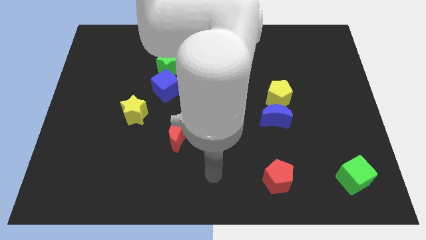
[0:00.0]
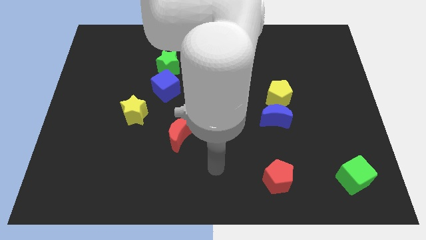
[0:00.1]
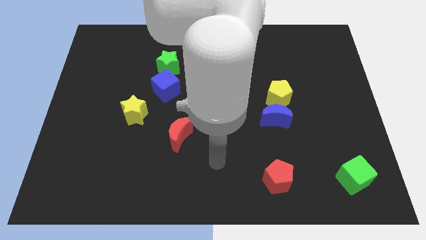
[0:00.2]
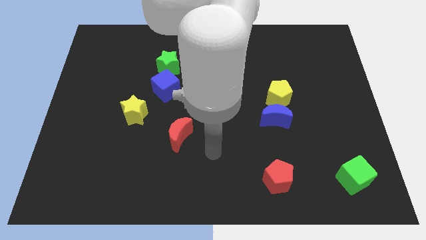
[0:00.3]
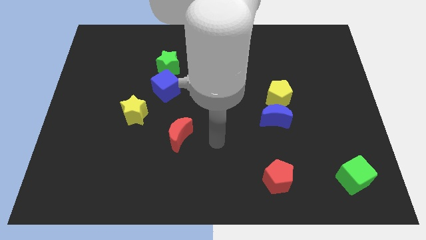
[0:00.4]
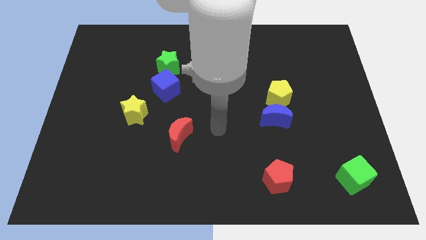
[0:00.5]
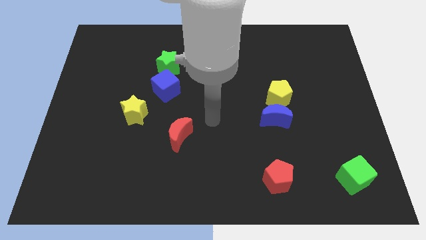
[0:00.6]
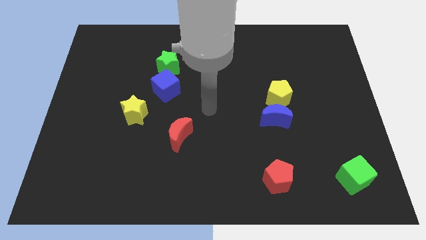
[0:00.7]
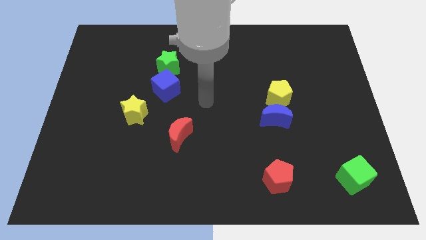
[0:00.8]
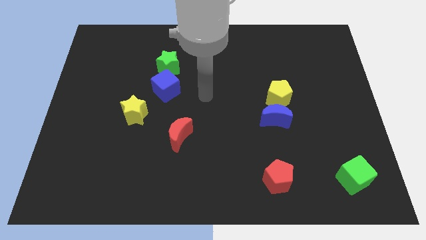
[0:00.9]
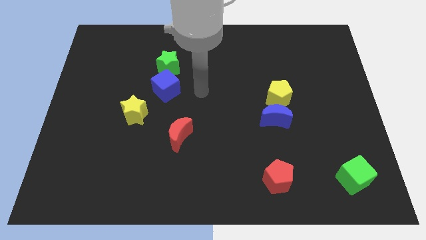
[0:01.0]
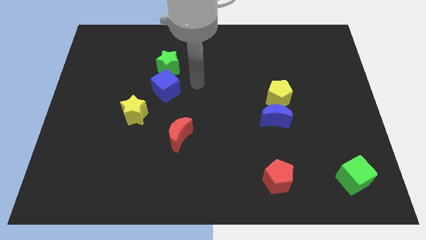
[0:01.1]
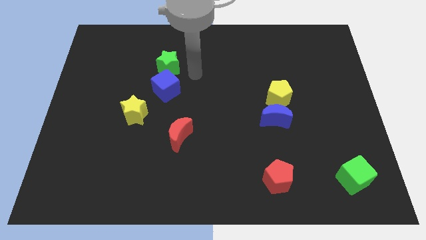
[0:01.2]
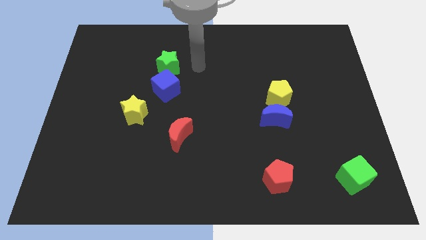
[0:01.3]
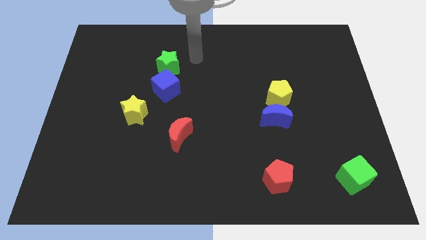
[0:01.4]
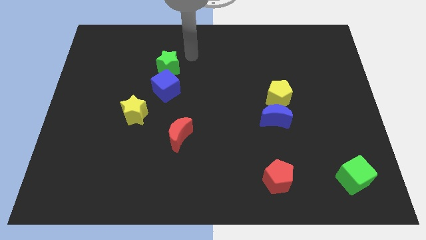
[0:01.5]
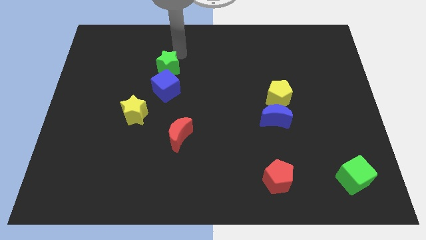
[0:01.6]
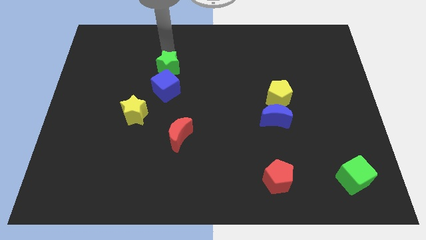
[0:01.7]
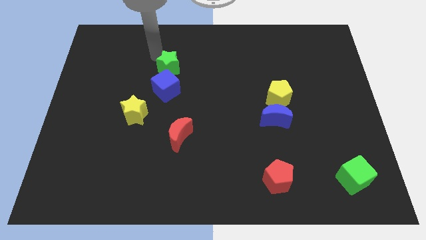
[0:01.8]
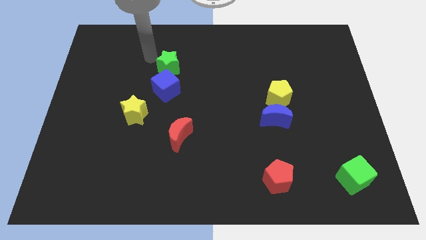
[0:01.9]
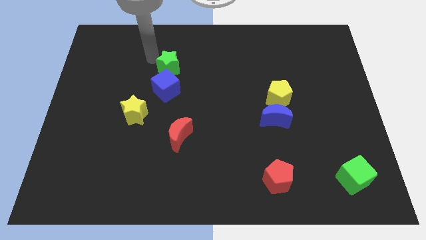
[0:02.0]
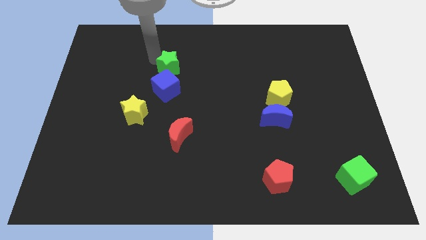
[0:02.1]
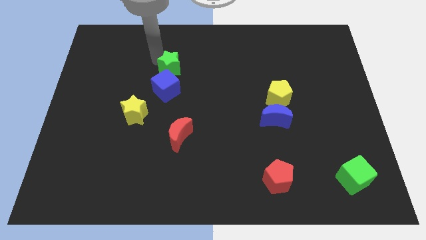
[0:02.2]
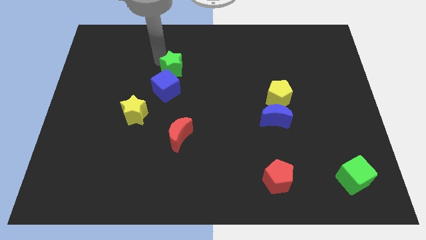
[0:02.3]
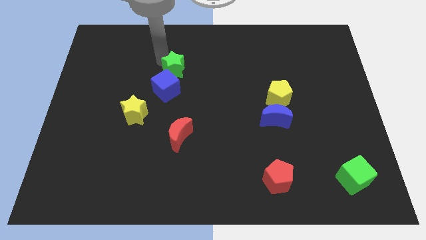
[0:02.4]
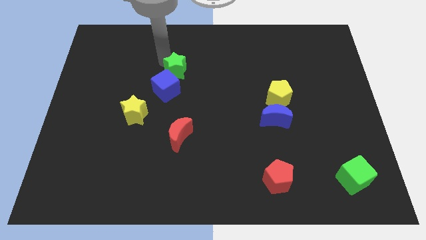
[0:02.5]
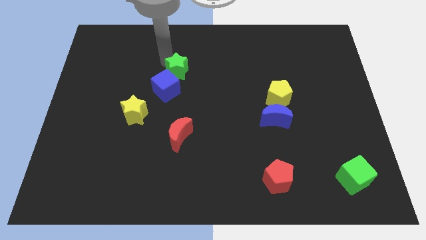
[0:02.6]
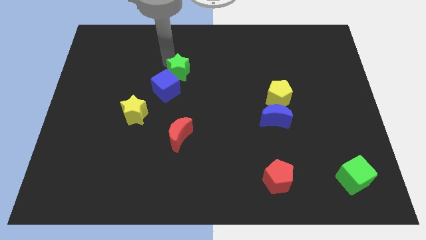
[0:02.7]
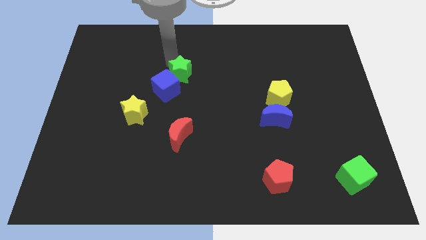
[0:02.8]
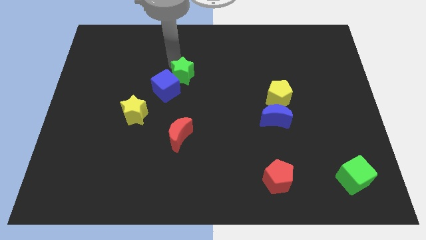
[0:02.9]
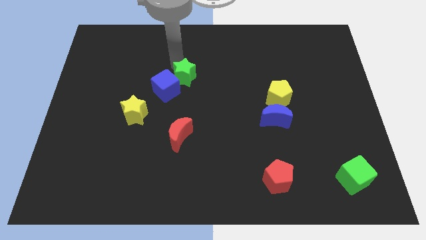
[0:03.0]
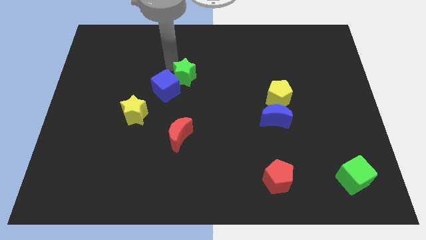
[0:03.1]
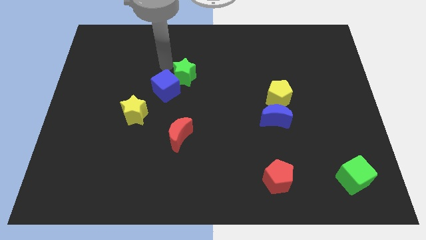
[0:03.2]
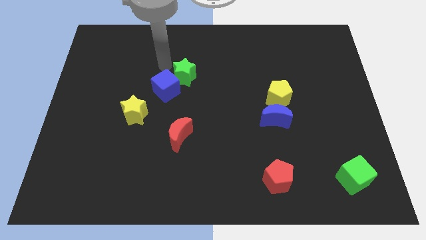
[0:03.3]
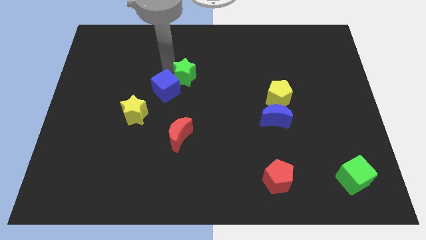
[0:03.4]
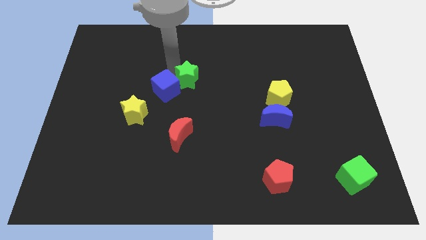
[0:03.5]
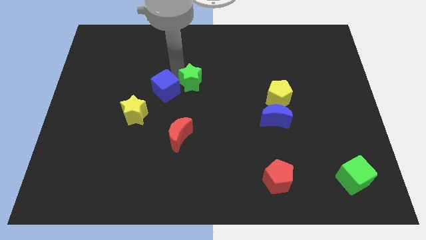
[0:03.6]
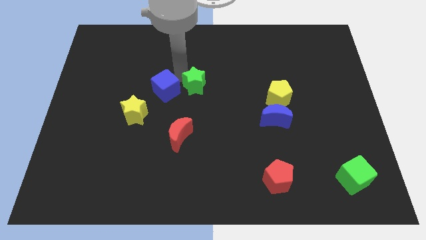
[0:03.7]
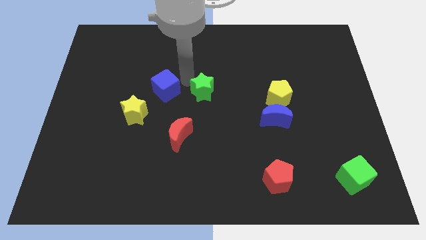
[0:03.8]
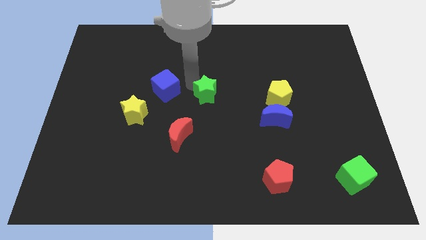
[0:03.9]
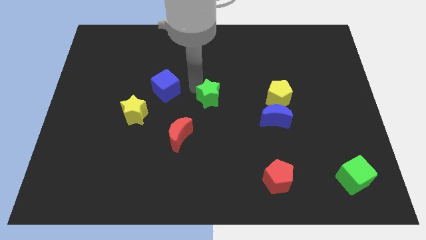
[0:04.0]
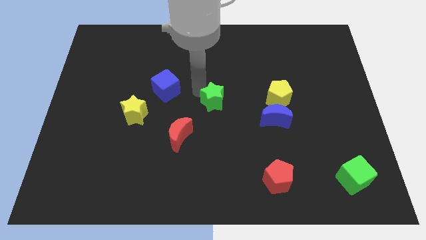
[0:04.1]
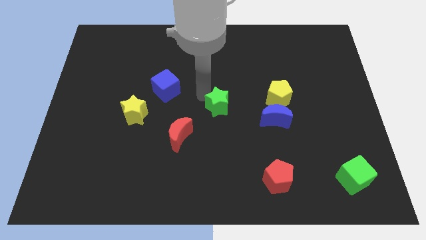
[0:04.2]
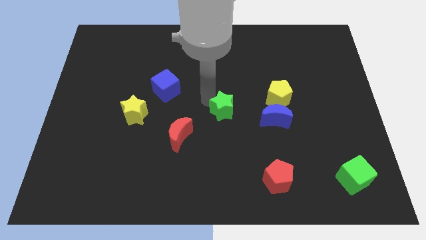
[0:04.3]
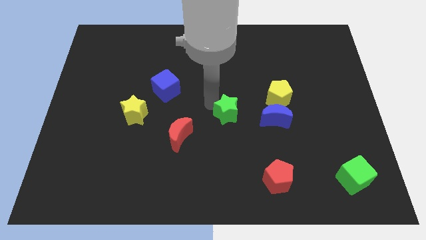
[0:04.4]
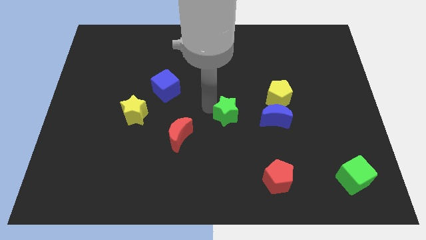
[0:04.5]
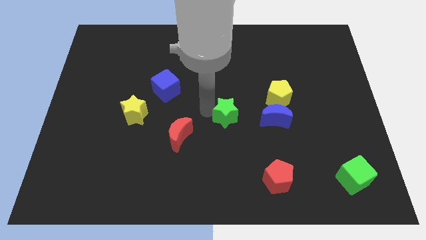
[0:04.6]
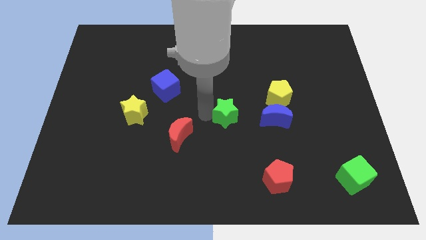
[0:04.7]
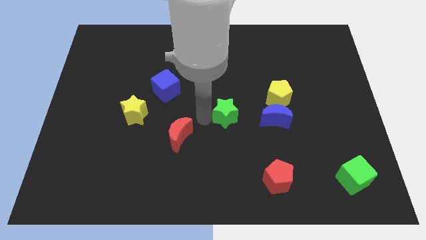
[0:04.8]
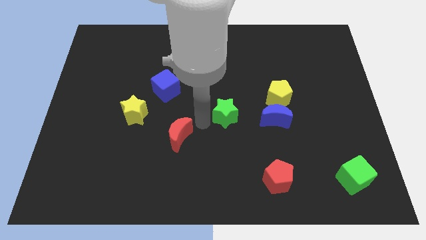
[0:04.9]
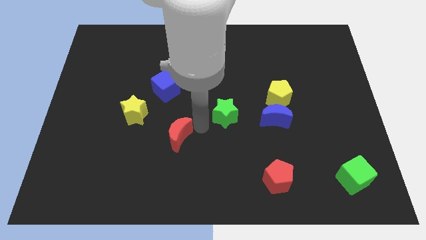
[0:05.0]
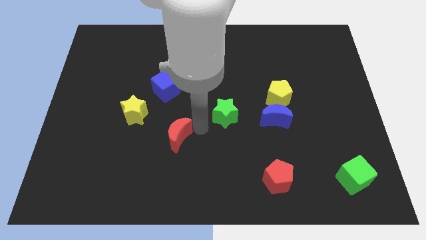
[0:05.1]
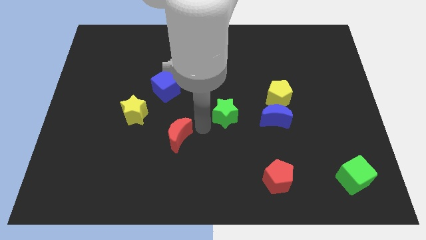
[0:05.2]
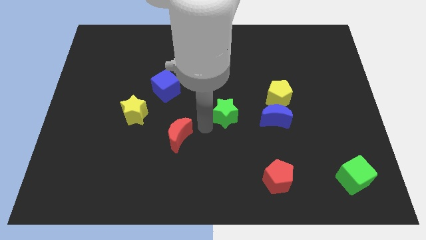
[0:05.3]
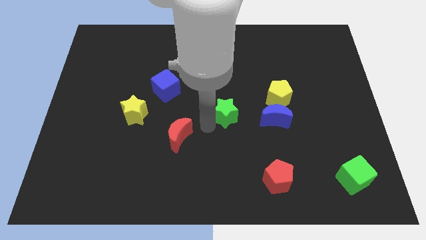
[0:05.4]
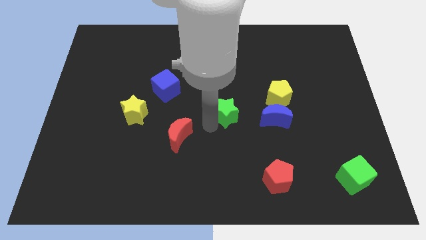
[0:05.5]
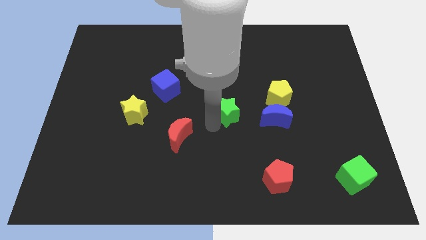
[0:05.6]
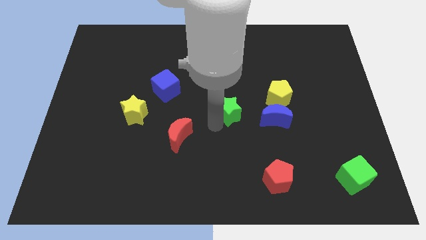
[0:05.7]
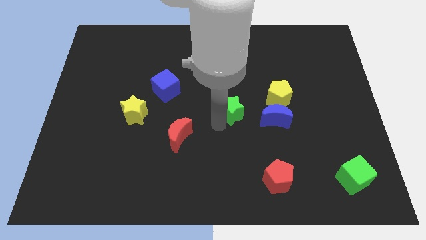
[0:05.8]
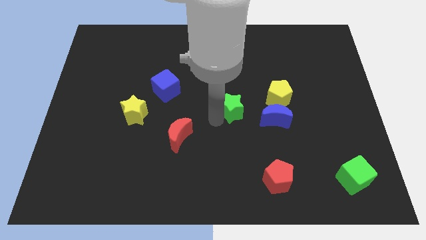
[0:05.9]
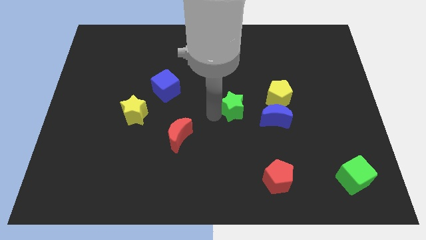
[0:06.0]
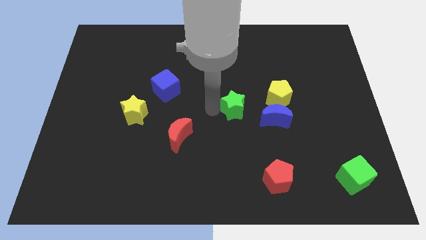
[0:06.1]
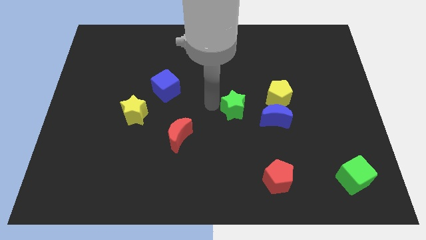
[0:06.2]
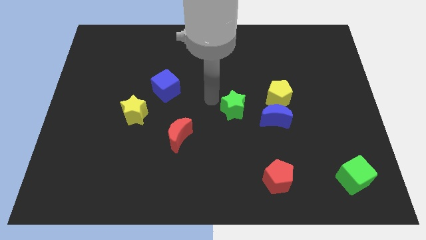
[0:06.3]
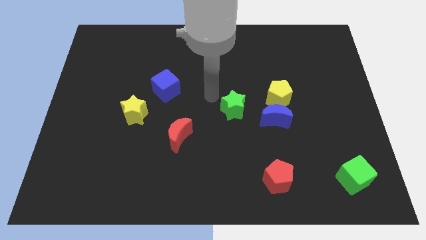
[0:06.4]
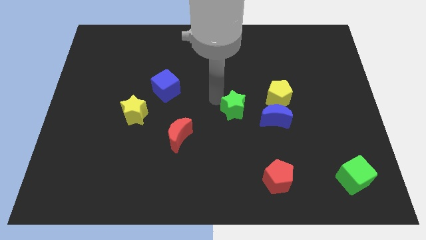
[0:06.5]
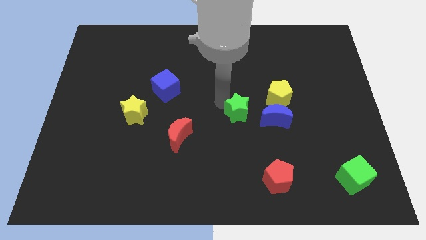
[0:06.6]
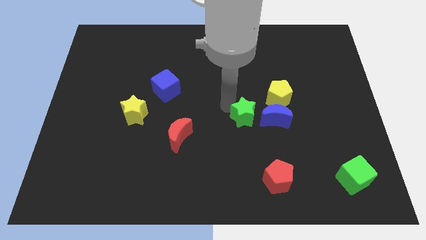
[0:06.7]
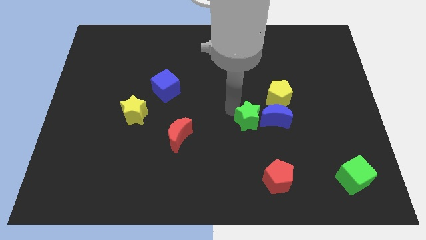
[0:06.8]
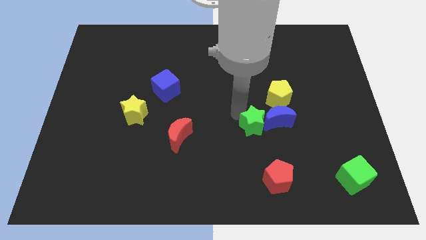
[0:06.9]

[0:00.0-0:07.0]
put the green star to the top side of the red pentagon
